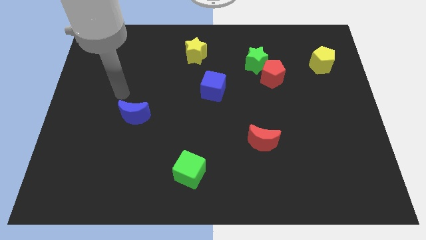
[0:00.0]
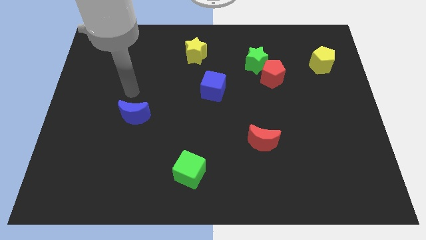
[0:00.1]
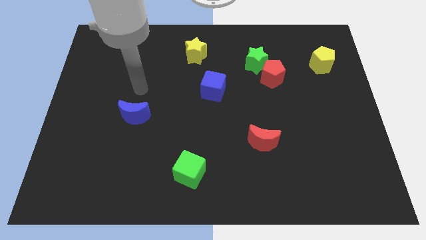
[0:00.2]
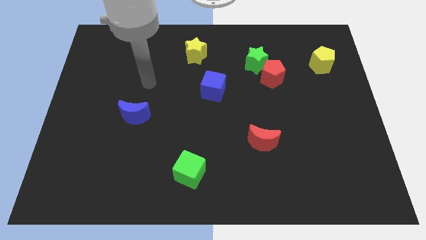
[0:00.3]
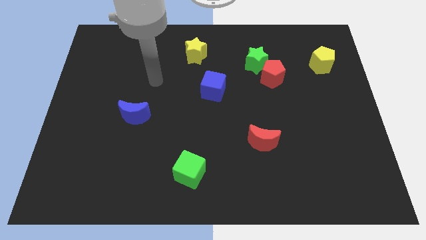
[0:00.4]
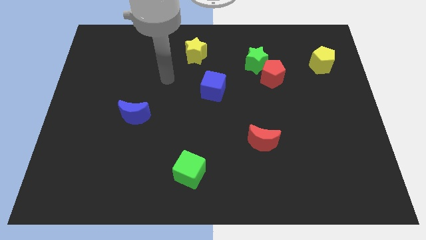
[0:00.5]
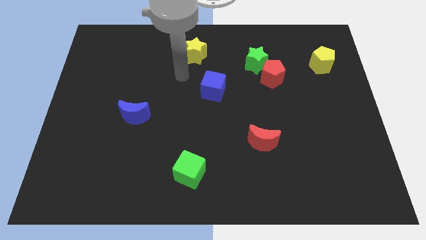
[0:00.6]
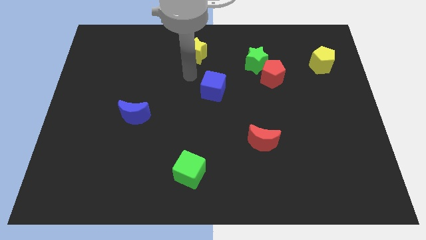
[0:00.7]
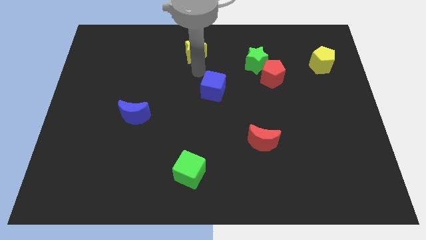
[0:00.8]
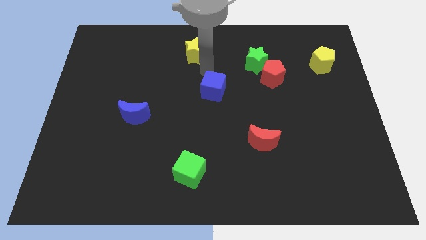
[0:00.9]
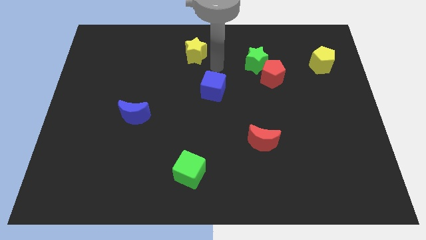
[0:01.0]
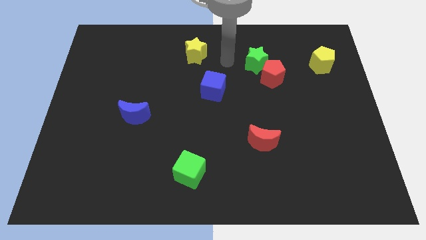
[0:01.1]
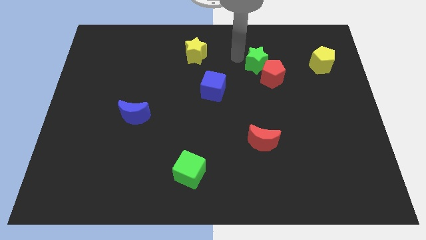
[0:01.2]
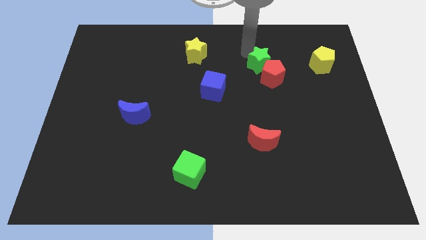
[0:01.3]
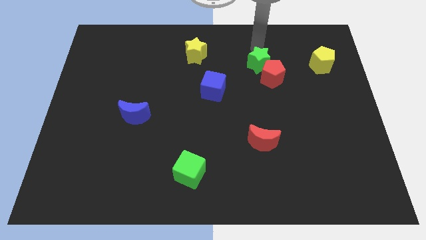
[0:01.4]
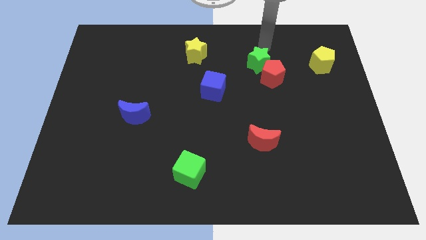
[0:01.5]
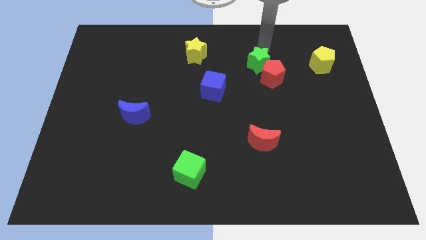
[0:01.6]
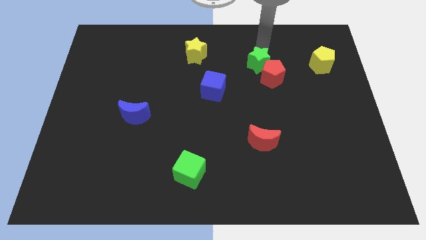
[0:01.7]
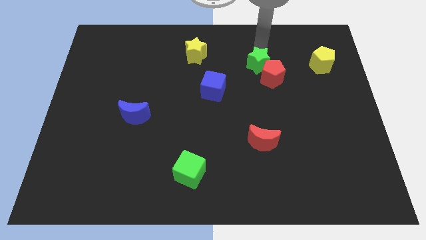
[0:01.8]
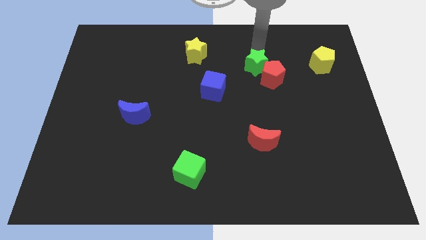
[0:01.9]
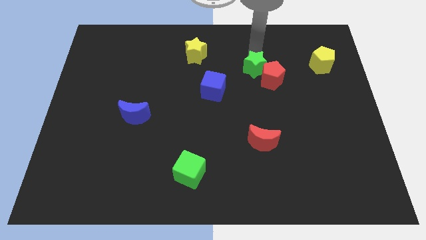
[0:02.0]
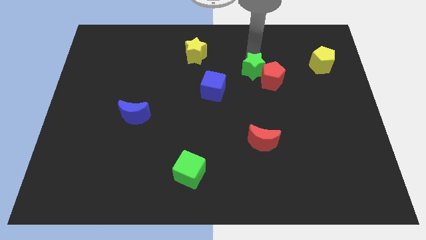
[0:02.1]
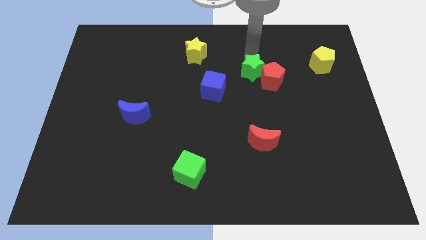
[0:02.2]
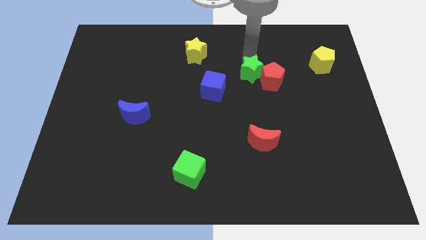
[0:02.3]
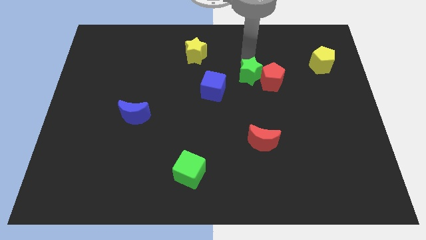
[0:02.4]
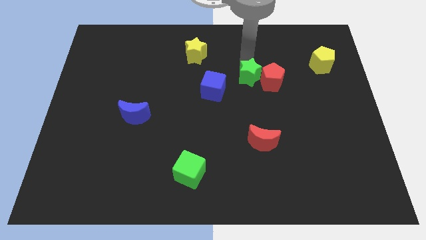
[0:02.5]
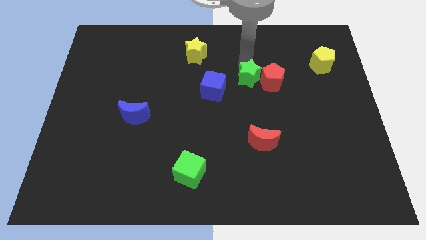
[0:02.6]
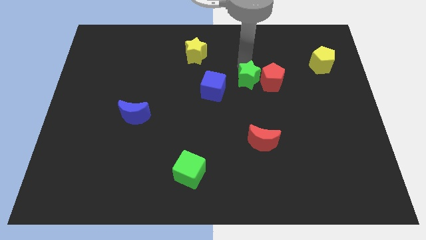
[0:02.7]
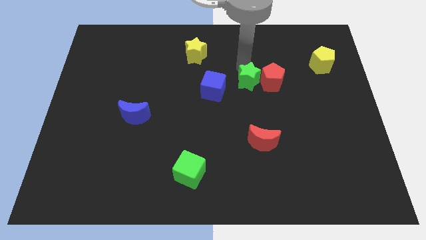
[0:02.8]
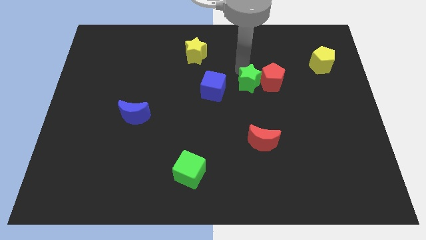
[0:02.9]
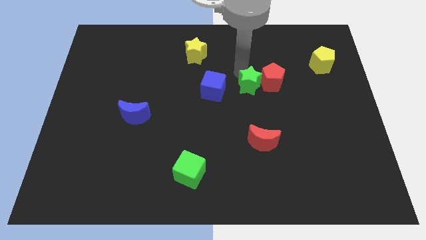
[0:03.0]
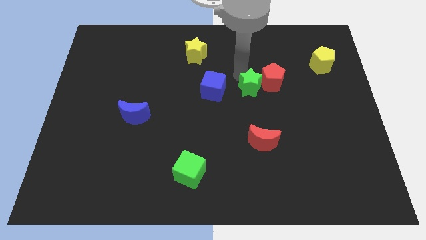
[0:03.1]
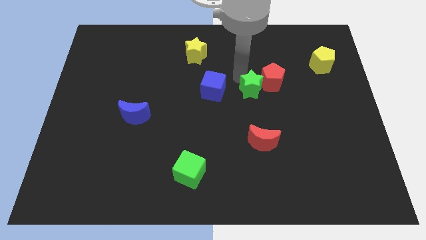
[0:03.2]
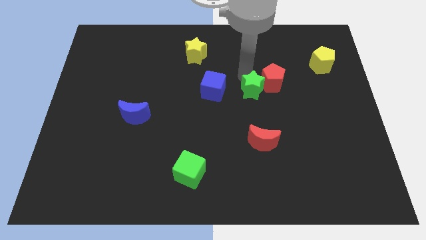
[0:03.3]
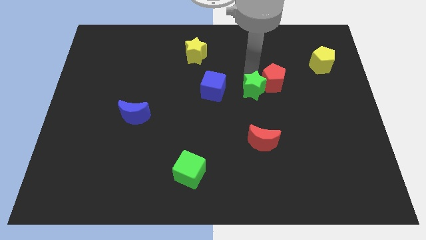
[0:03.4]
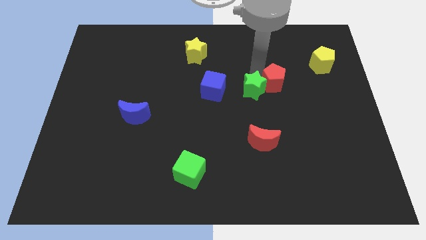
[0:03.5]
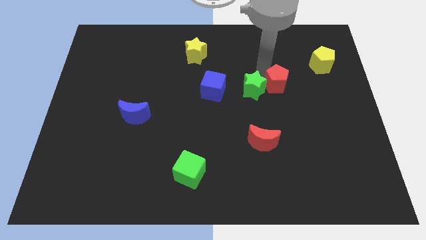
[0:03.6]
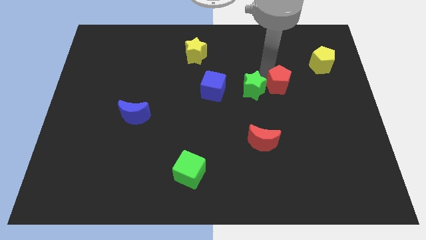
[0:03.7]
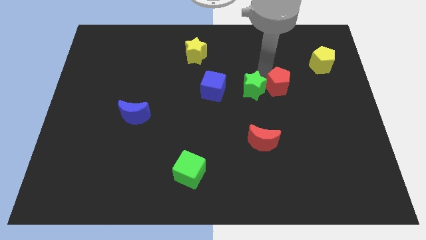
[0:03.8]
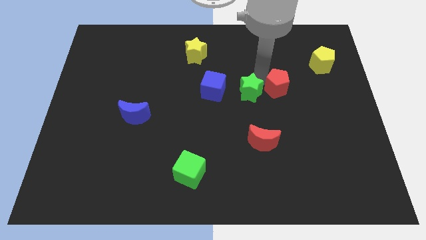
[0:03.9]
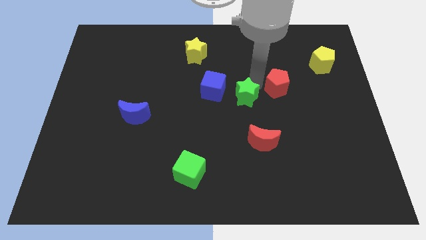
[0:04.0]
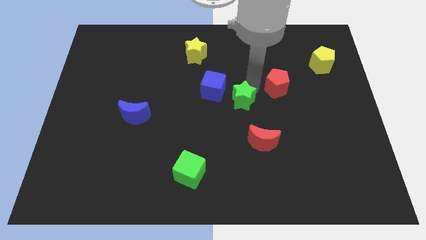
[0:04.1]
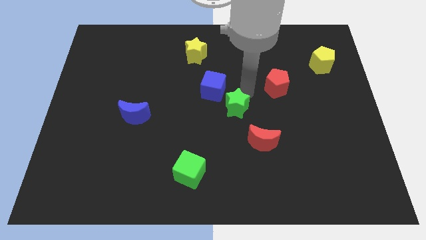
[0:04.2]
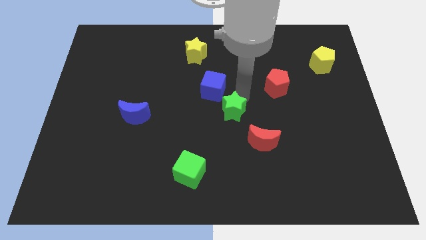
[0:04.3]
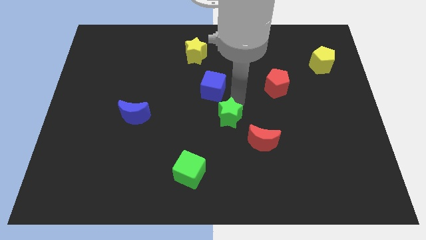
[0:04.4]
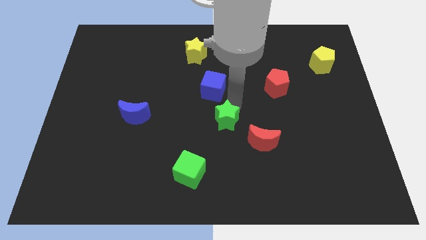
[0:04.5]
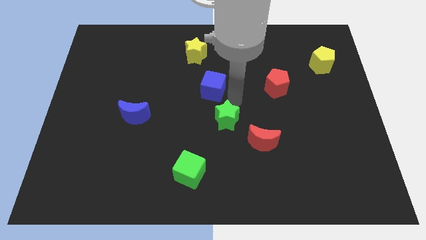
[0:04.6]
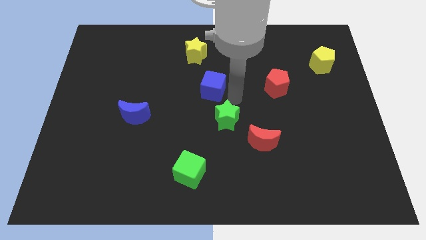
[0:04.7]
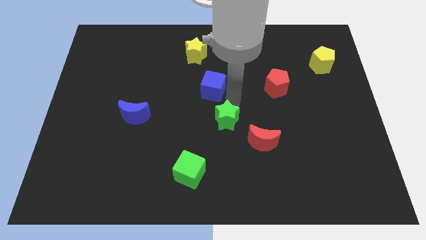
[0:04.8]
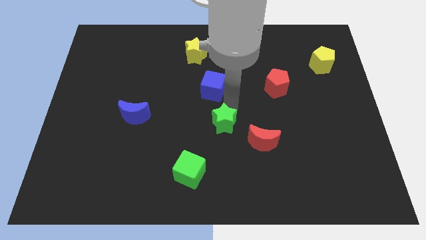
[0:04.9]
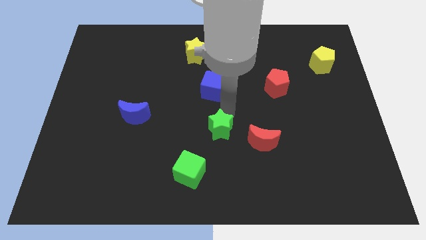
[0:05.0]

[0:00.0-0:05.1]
move the green star just left of the red moon

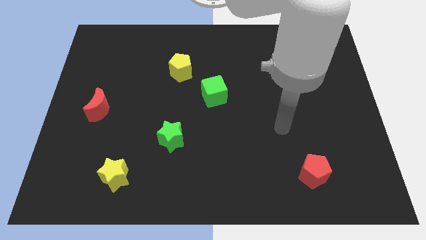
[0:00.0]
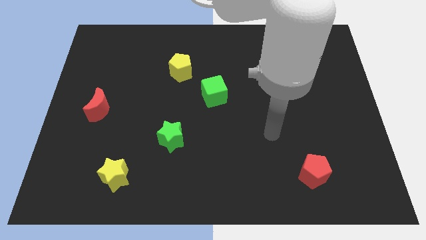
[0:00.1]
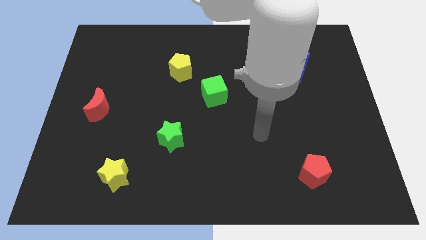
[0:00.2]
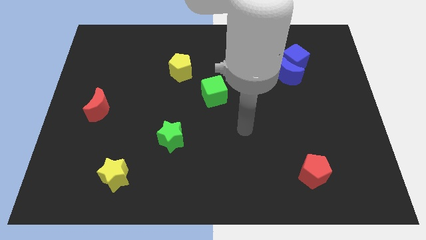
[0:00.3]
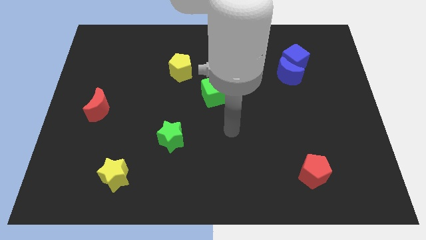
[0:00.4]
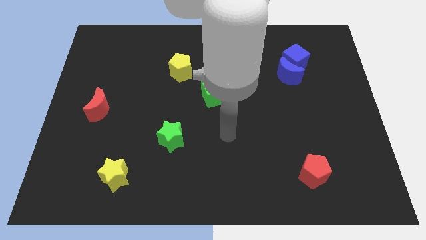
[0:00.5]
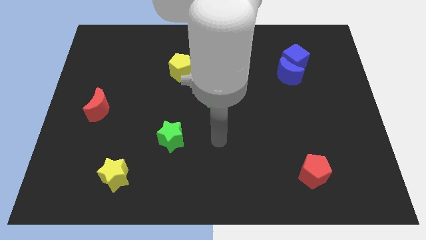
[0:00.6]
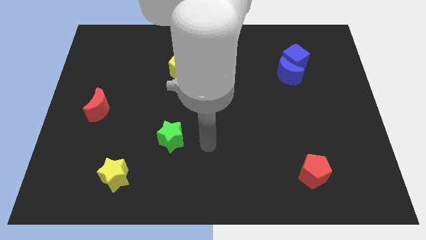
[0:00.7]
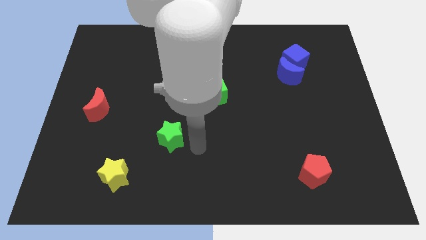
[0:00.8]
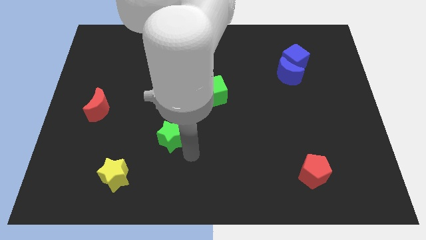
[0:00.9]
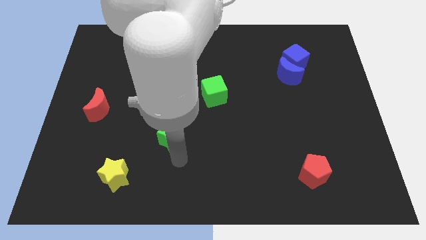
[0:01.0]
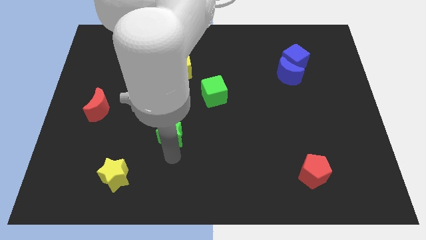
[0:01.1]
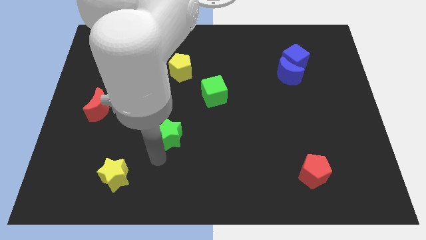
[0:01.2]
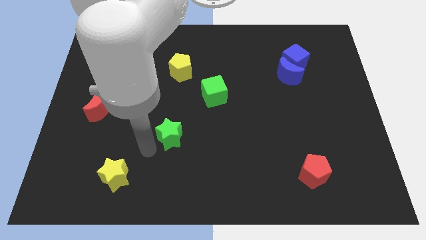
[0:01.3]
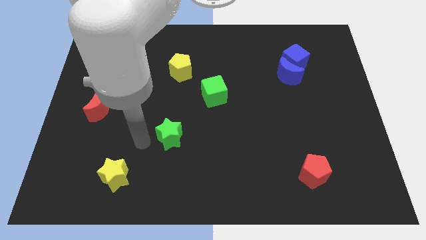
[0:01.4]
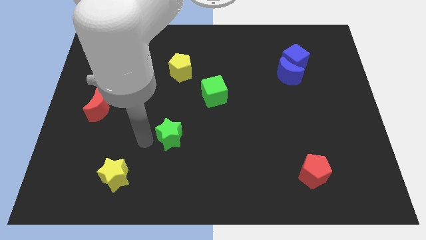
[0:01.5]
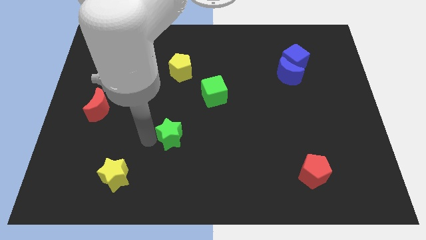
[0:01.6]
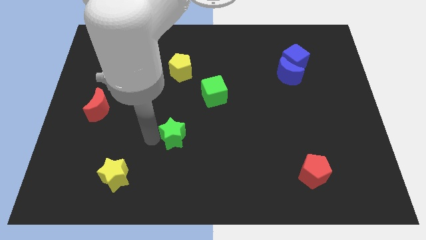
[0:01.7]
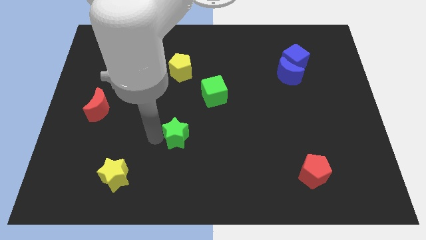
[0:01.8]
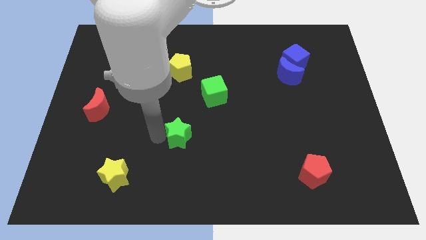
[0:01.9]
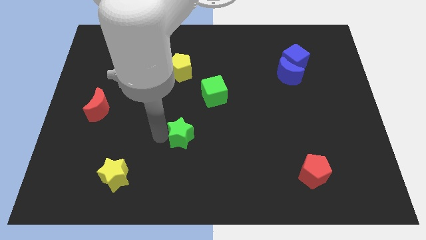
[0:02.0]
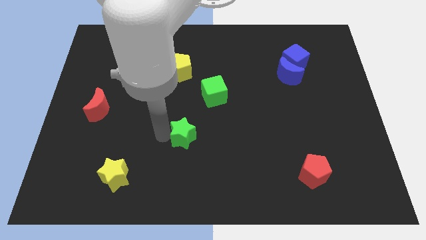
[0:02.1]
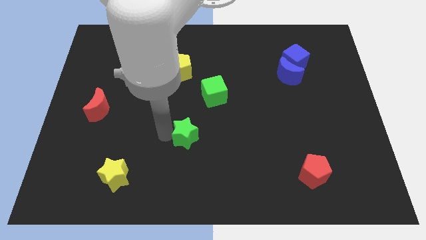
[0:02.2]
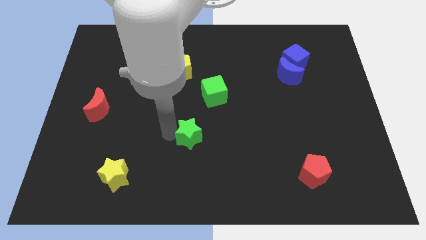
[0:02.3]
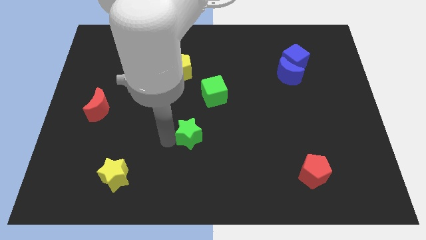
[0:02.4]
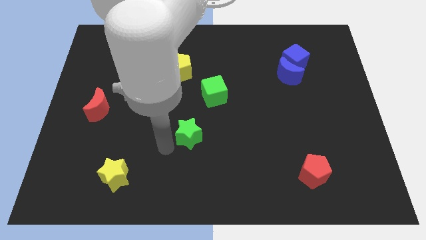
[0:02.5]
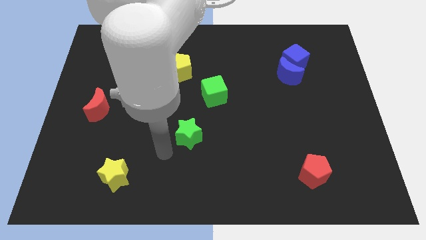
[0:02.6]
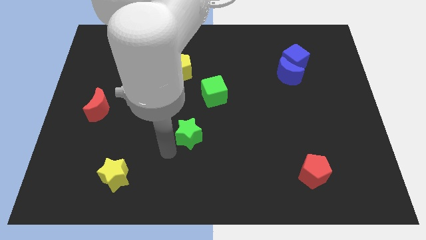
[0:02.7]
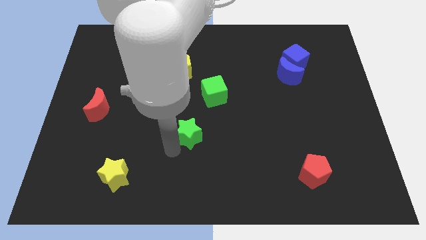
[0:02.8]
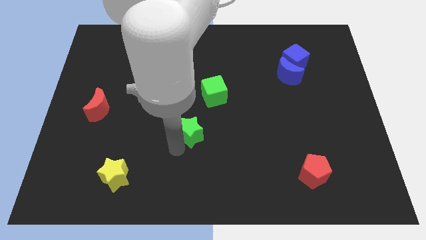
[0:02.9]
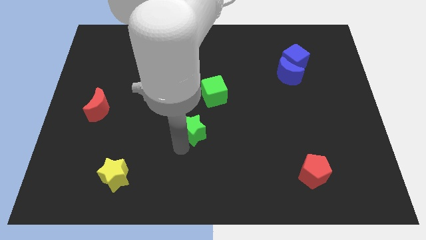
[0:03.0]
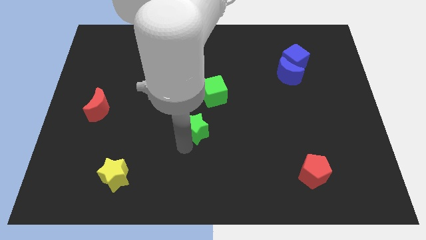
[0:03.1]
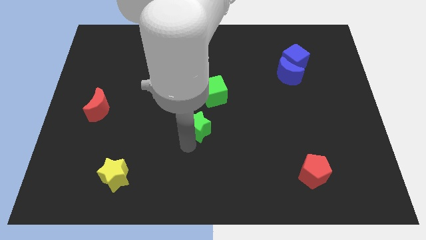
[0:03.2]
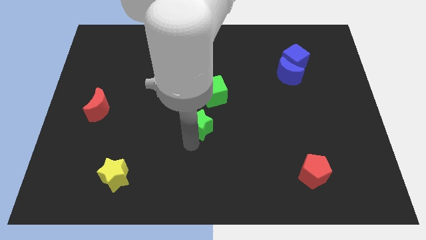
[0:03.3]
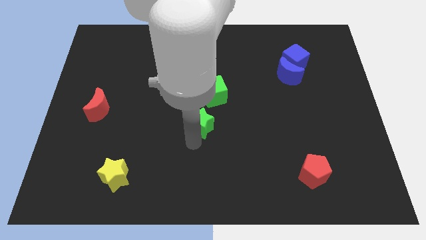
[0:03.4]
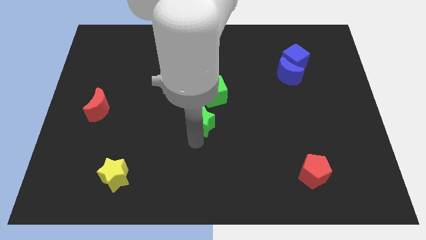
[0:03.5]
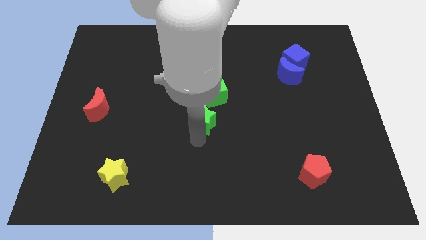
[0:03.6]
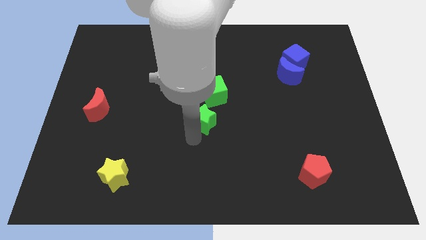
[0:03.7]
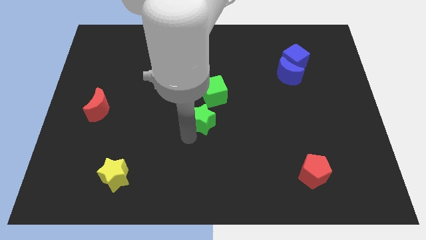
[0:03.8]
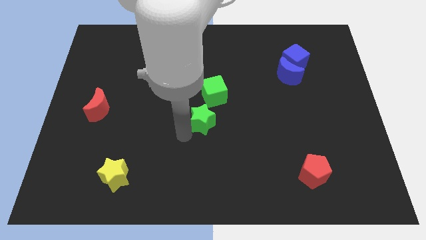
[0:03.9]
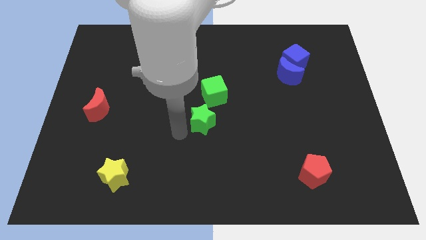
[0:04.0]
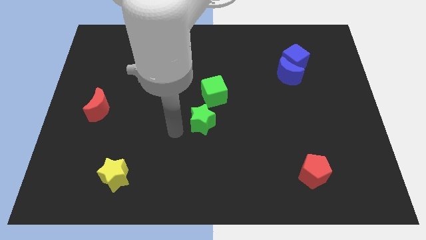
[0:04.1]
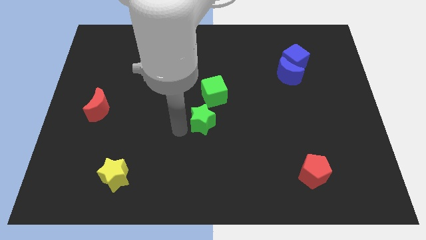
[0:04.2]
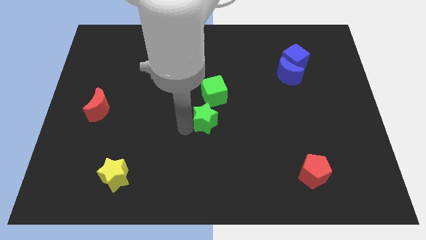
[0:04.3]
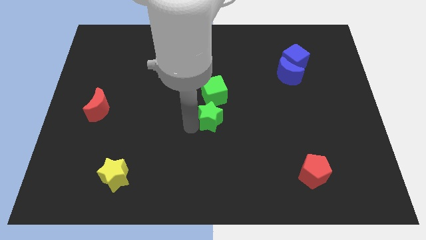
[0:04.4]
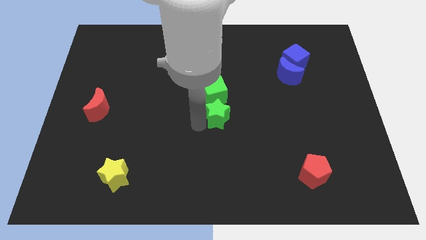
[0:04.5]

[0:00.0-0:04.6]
move the green star to the bottom right of the green cube
